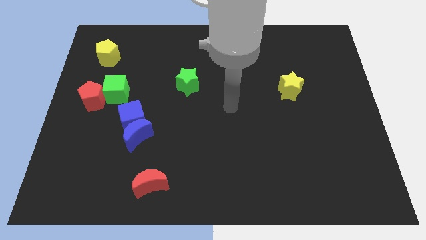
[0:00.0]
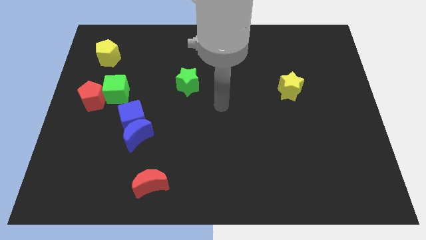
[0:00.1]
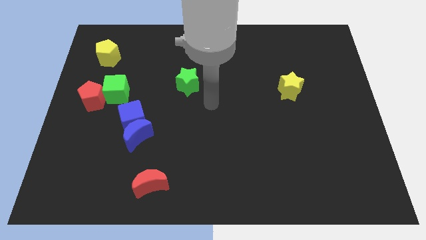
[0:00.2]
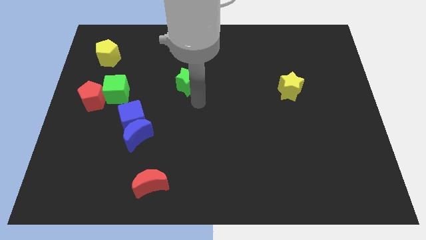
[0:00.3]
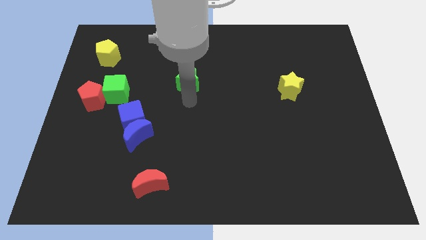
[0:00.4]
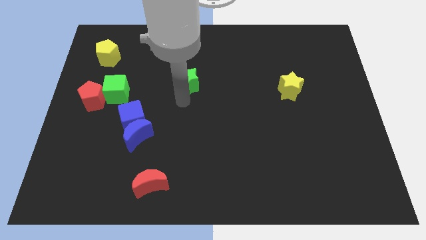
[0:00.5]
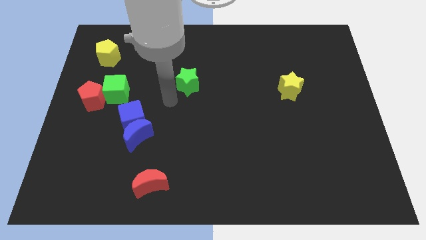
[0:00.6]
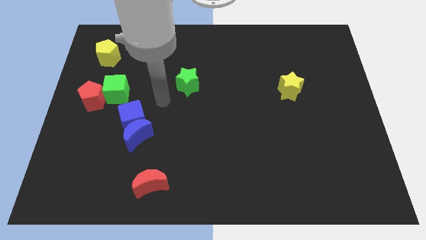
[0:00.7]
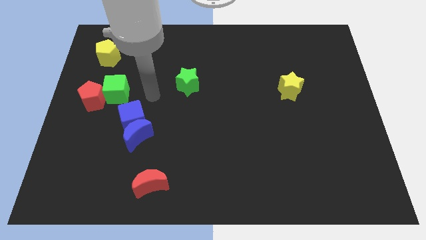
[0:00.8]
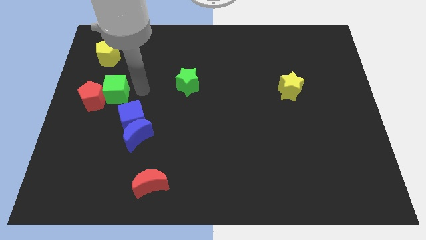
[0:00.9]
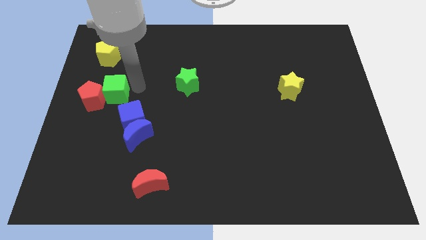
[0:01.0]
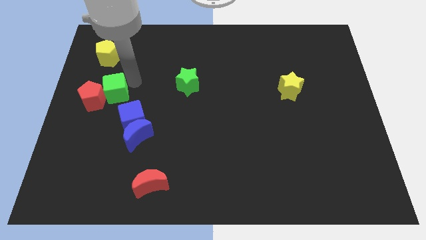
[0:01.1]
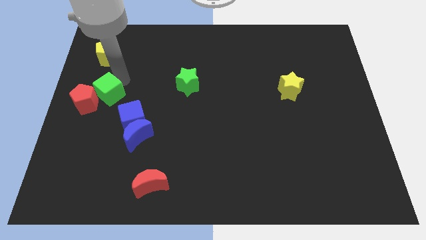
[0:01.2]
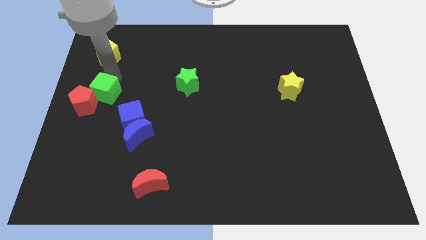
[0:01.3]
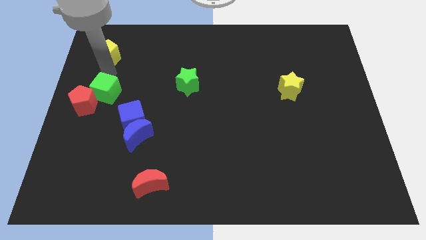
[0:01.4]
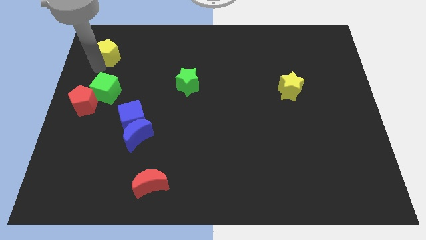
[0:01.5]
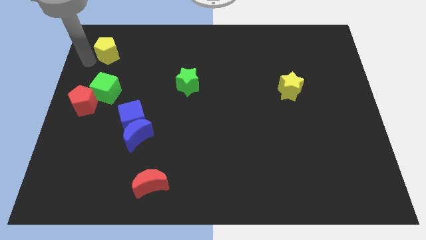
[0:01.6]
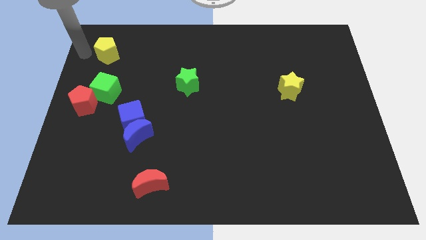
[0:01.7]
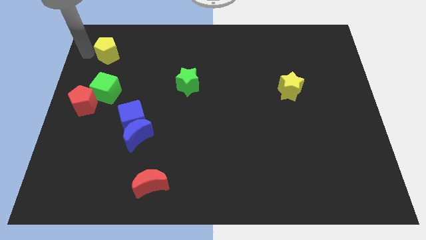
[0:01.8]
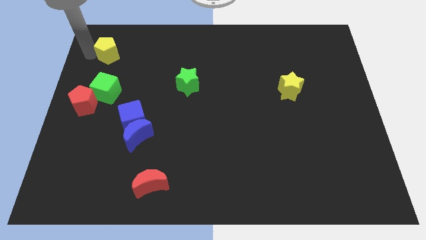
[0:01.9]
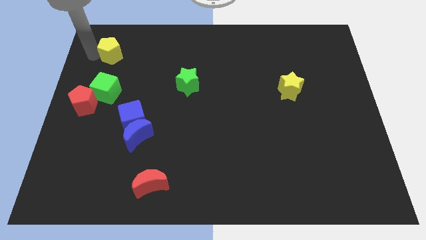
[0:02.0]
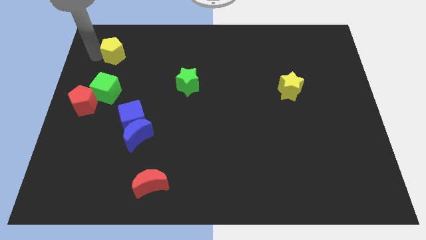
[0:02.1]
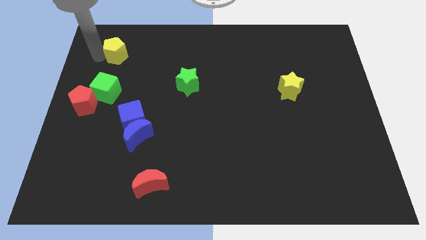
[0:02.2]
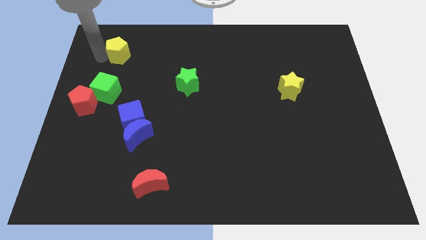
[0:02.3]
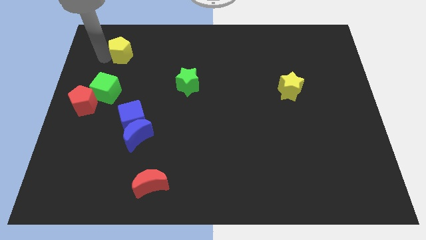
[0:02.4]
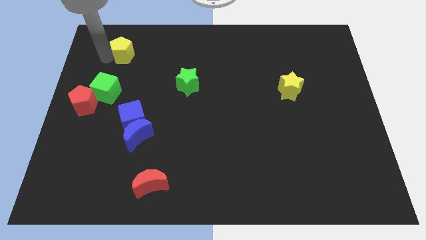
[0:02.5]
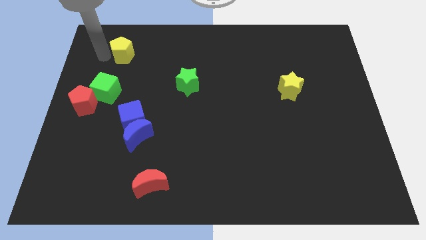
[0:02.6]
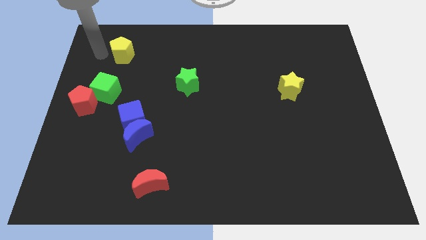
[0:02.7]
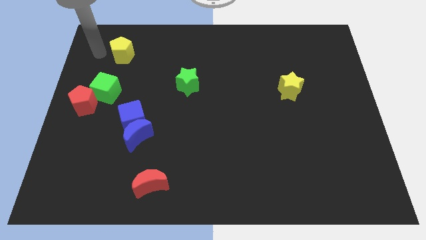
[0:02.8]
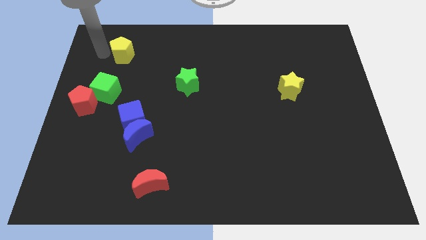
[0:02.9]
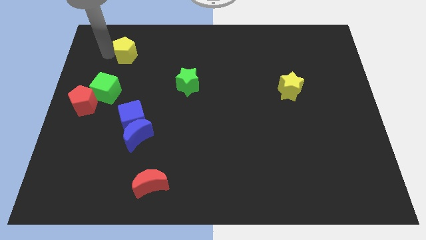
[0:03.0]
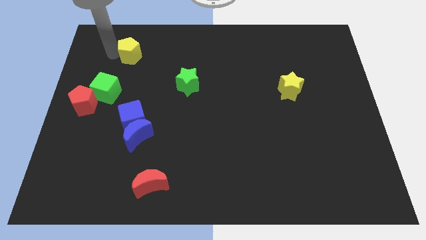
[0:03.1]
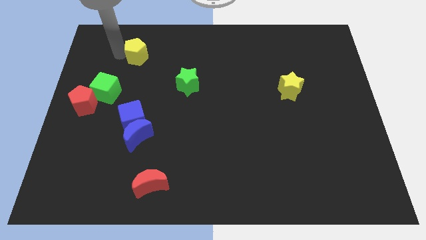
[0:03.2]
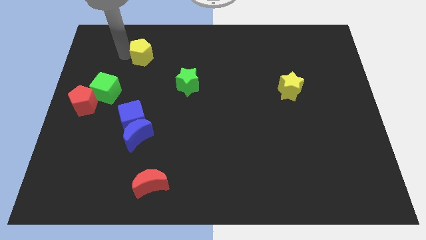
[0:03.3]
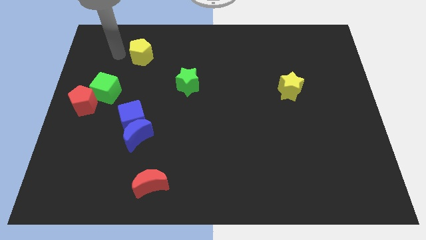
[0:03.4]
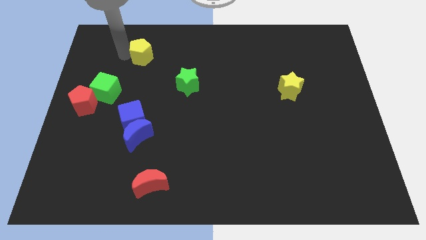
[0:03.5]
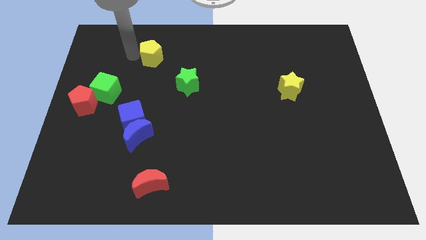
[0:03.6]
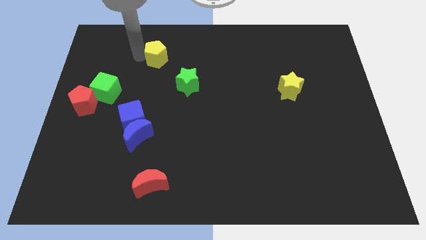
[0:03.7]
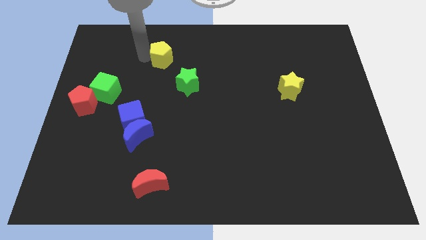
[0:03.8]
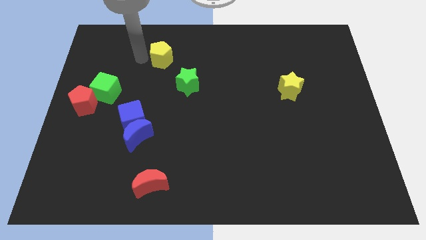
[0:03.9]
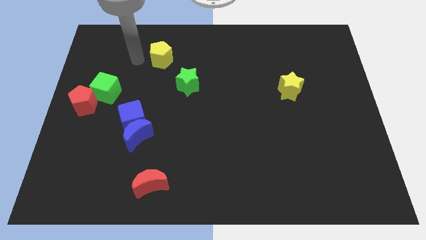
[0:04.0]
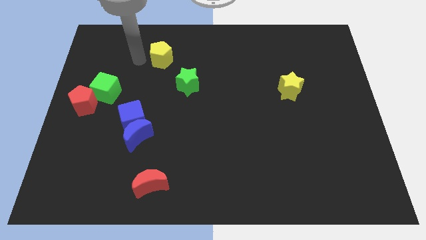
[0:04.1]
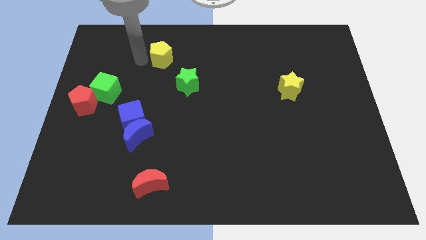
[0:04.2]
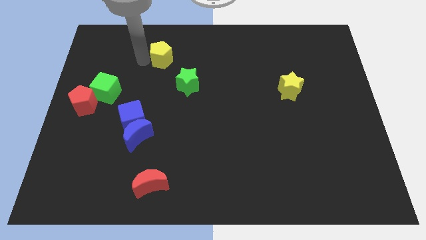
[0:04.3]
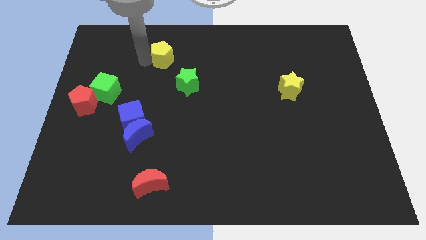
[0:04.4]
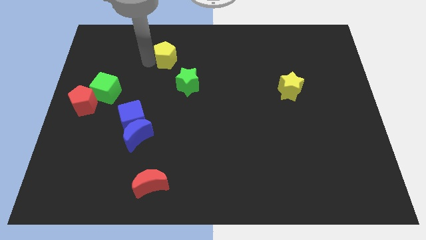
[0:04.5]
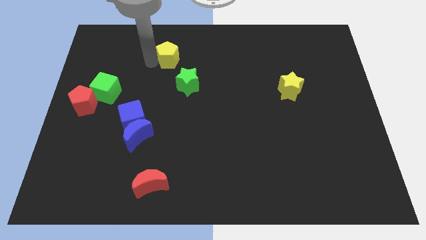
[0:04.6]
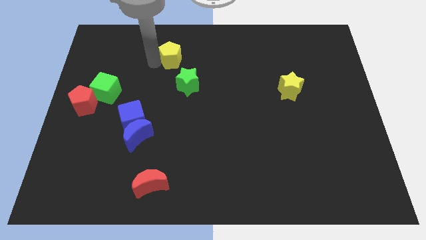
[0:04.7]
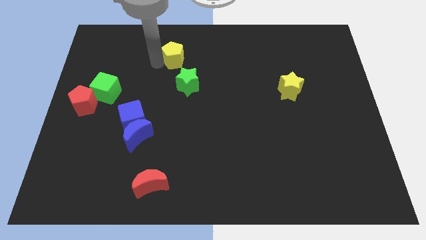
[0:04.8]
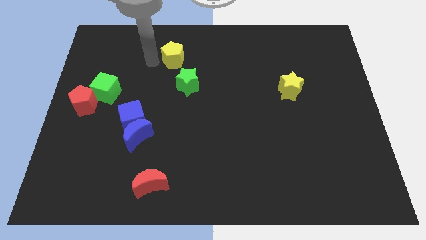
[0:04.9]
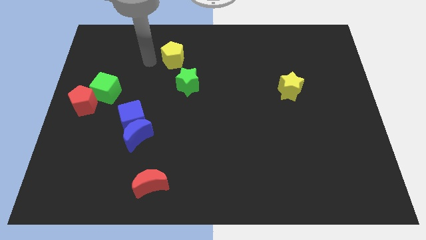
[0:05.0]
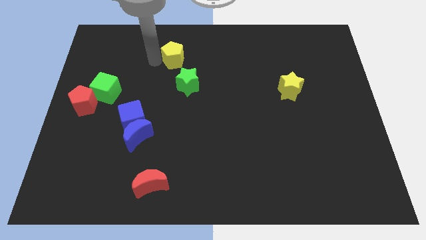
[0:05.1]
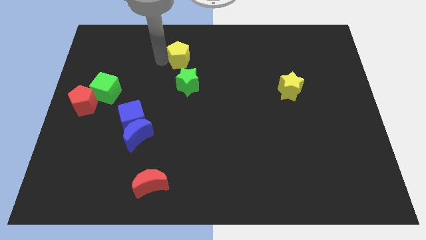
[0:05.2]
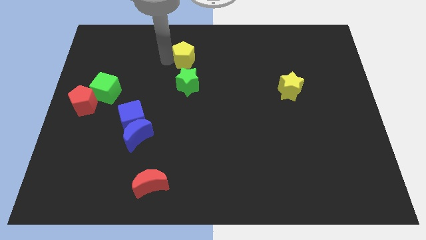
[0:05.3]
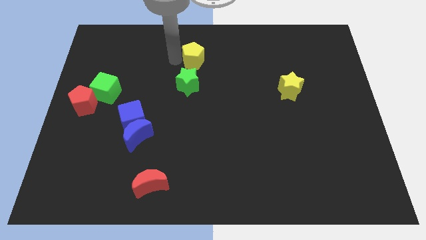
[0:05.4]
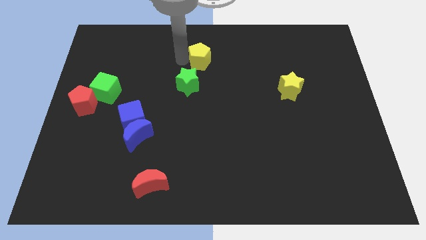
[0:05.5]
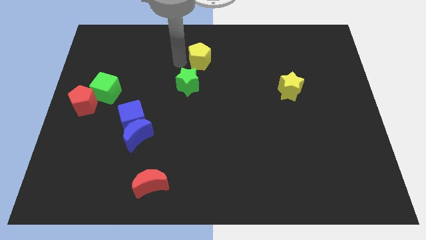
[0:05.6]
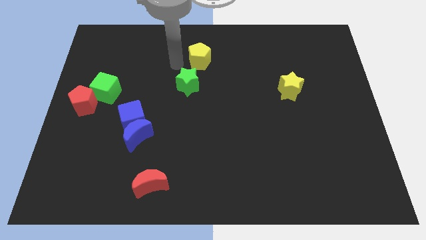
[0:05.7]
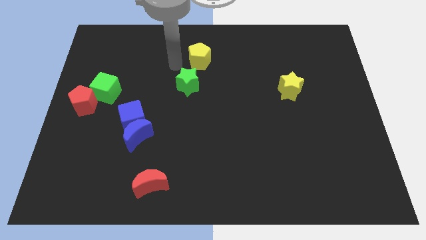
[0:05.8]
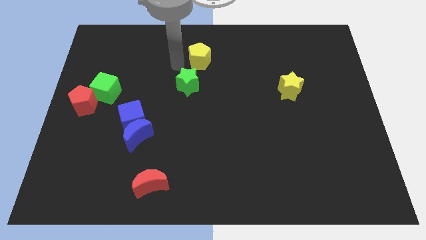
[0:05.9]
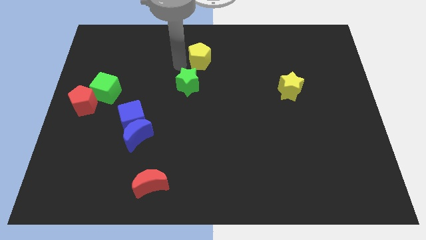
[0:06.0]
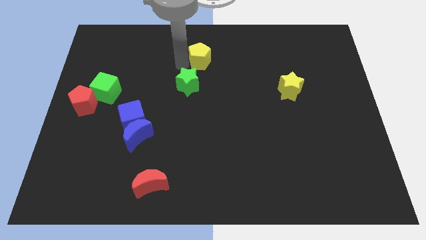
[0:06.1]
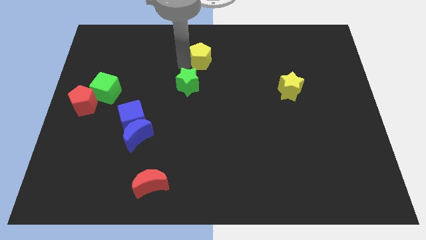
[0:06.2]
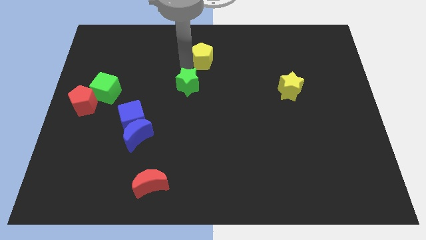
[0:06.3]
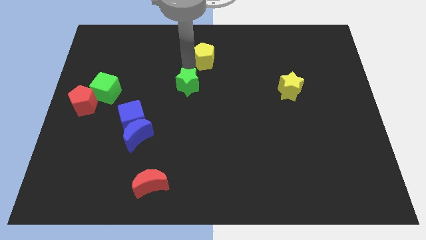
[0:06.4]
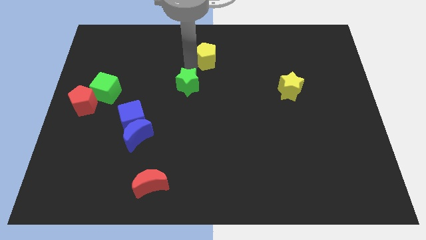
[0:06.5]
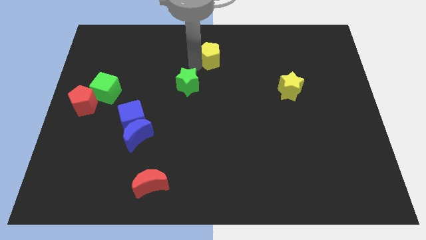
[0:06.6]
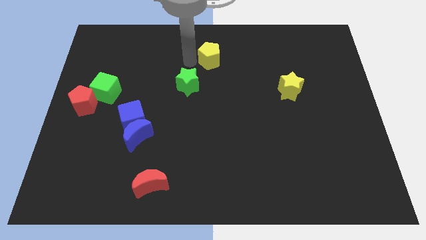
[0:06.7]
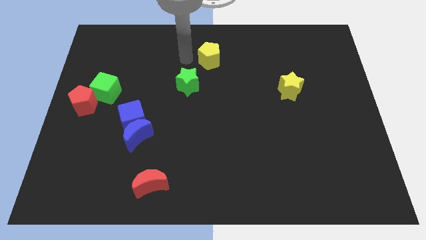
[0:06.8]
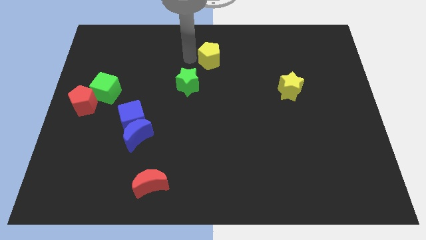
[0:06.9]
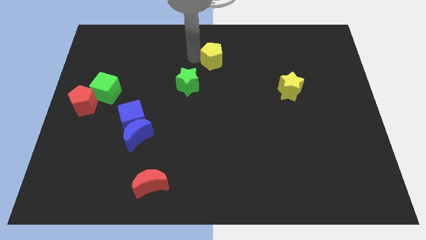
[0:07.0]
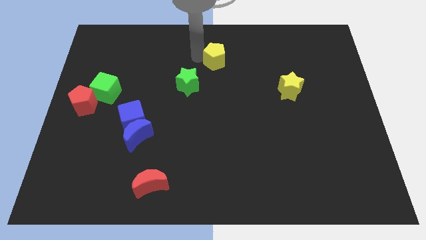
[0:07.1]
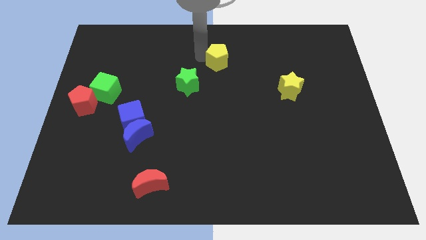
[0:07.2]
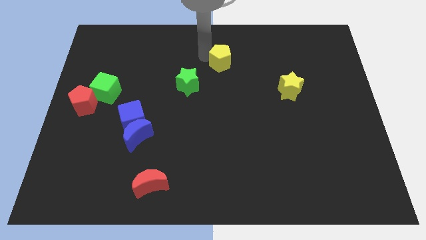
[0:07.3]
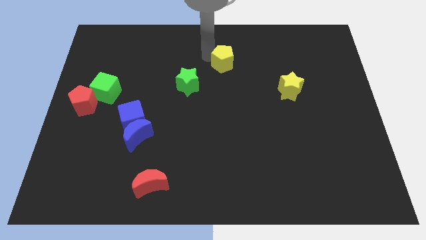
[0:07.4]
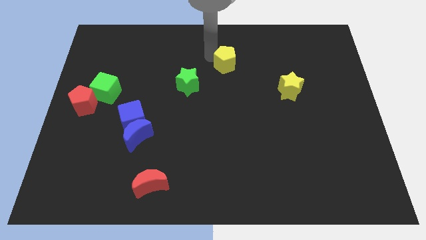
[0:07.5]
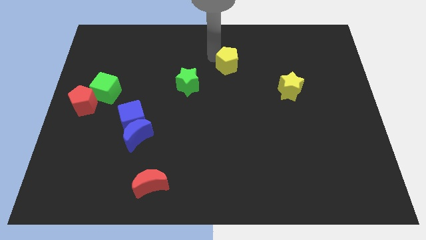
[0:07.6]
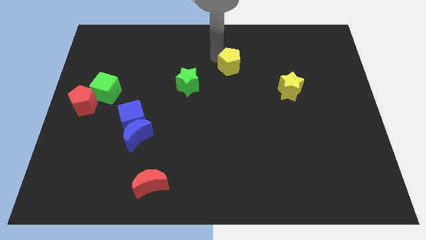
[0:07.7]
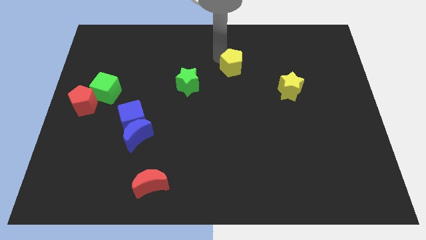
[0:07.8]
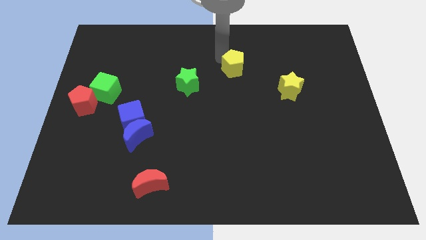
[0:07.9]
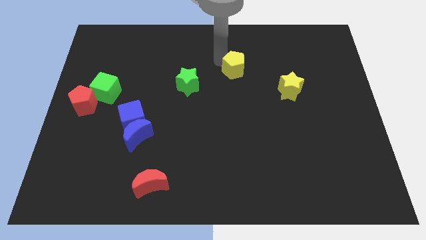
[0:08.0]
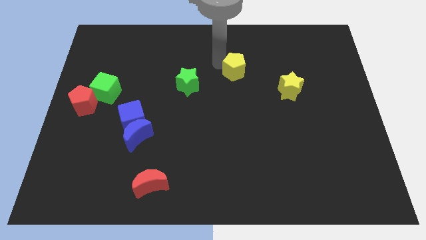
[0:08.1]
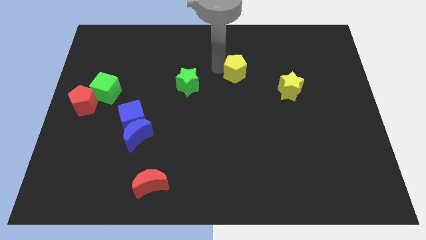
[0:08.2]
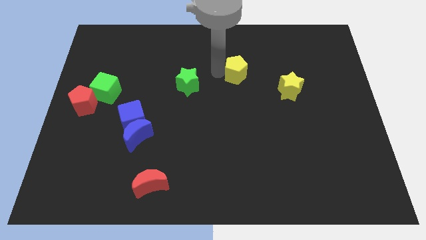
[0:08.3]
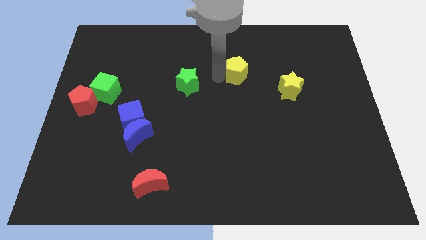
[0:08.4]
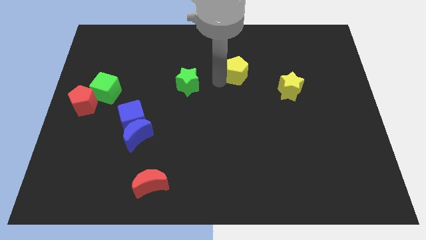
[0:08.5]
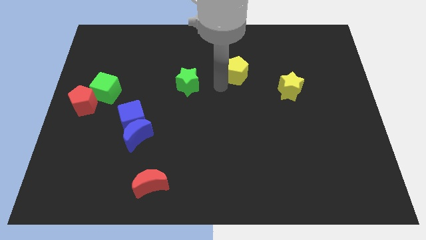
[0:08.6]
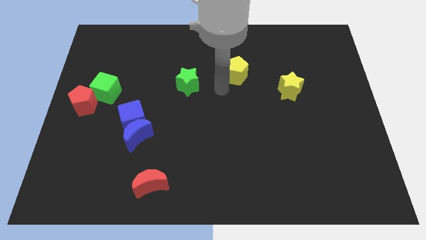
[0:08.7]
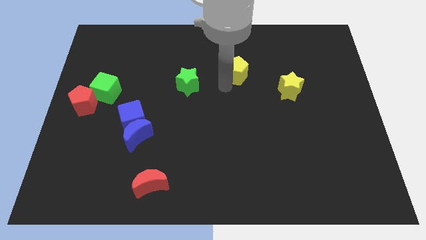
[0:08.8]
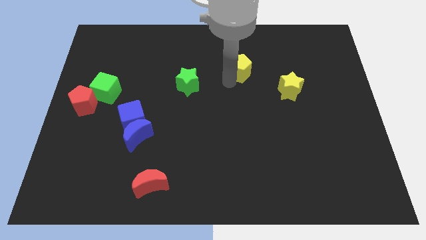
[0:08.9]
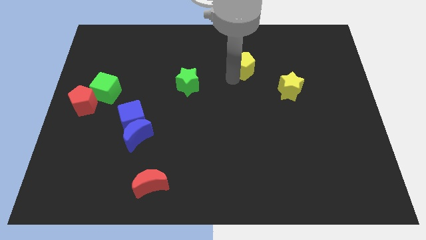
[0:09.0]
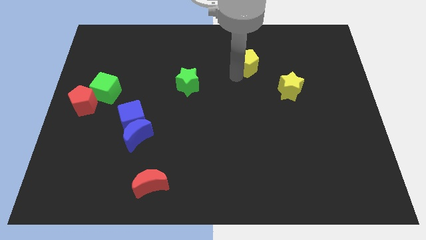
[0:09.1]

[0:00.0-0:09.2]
slide the yellow pentagon to the top left side of the yellow star
